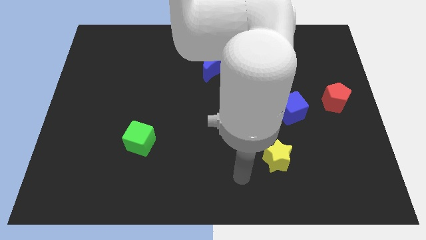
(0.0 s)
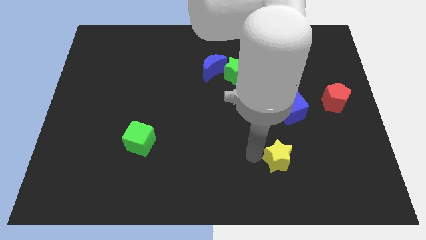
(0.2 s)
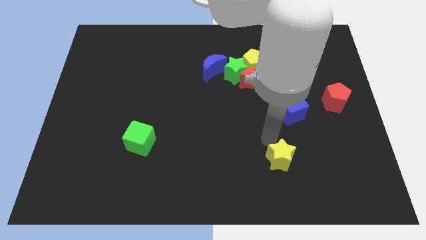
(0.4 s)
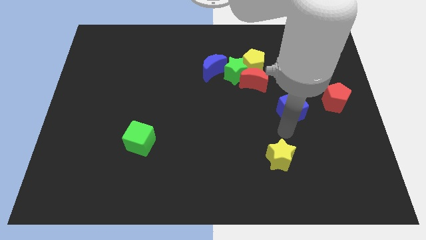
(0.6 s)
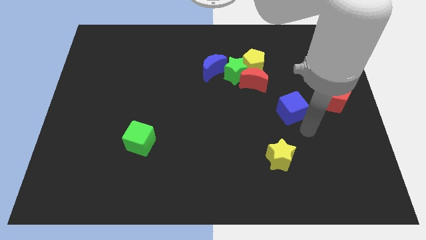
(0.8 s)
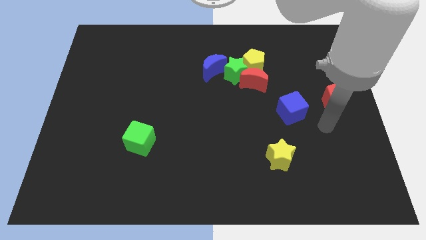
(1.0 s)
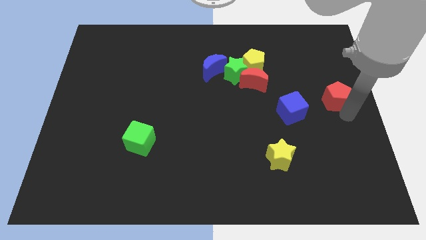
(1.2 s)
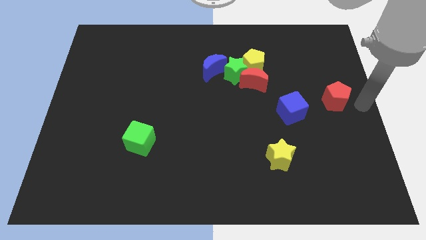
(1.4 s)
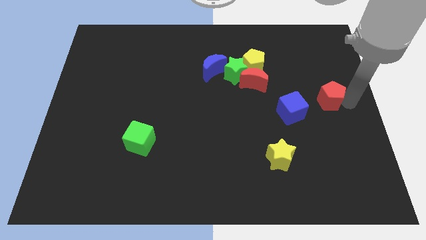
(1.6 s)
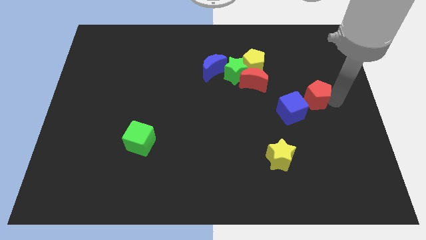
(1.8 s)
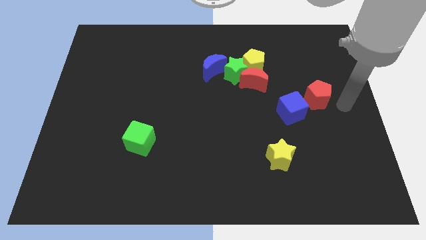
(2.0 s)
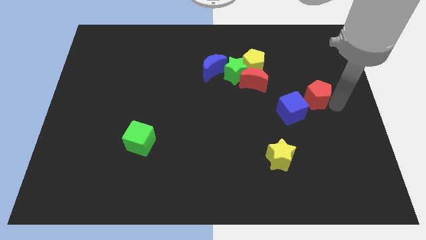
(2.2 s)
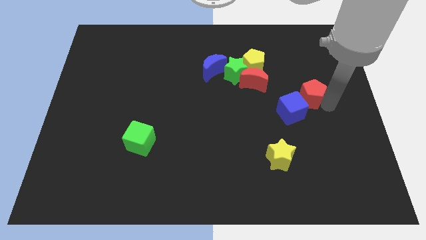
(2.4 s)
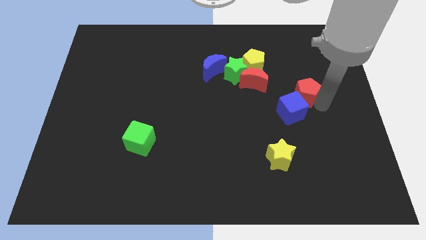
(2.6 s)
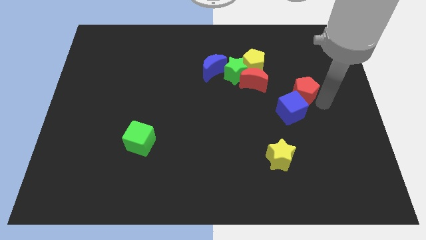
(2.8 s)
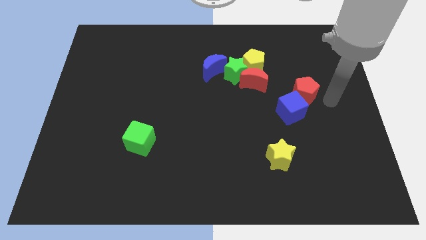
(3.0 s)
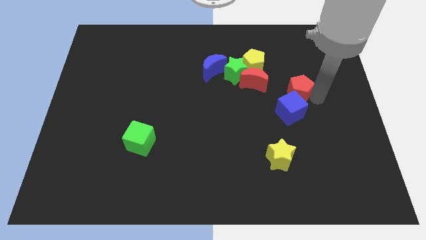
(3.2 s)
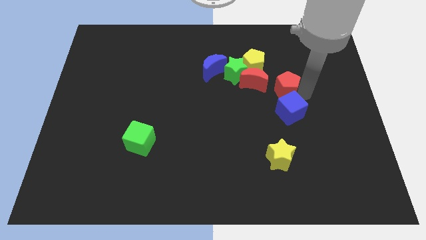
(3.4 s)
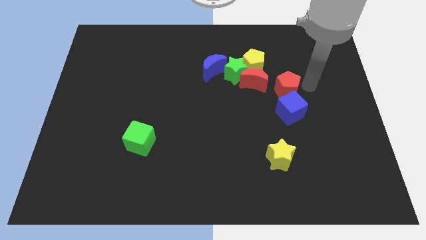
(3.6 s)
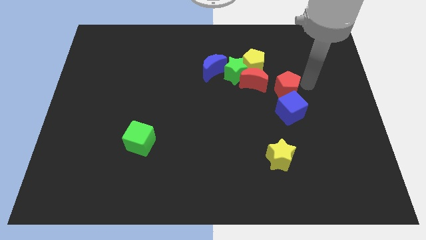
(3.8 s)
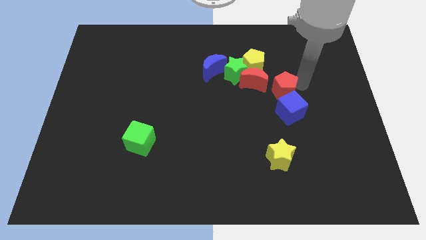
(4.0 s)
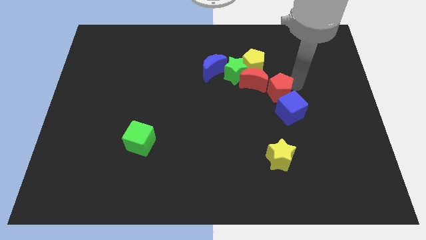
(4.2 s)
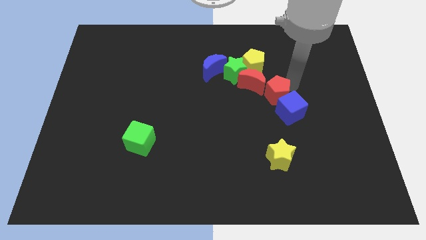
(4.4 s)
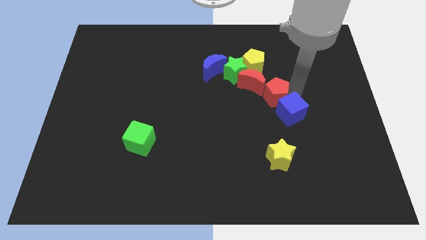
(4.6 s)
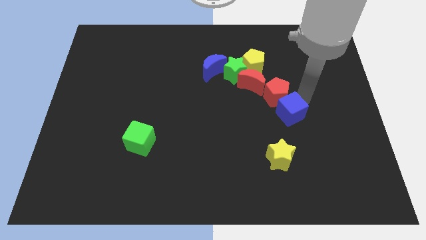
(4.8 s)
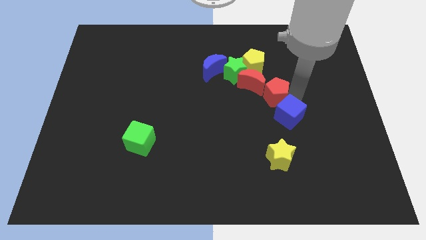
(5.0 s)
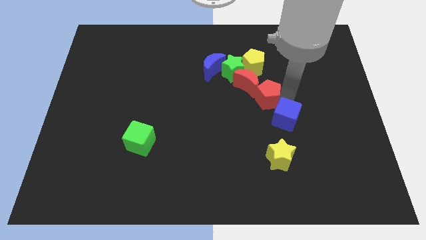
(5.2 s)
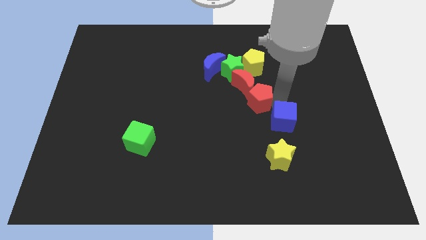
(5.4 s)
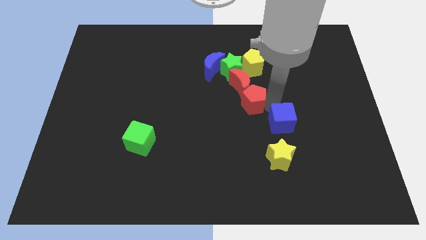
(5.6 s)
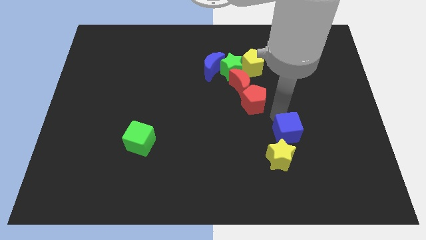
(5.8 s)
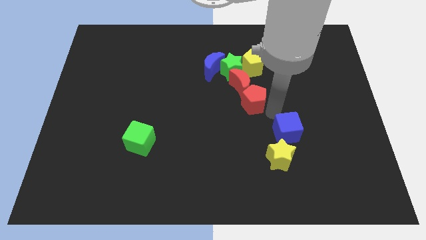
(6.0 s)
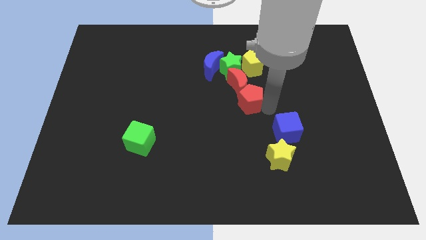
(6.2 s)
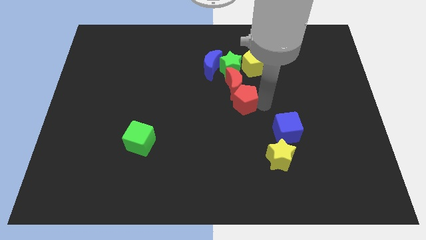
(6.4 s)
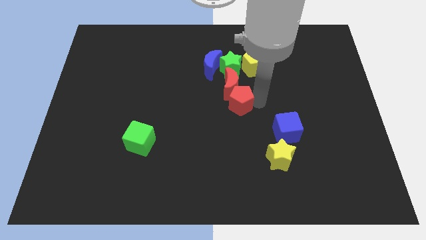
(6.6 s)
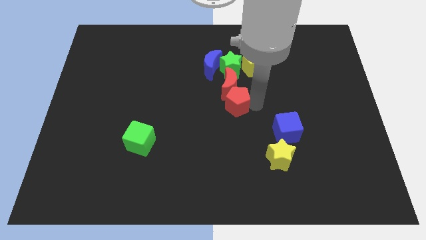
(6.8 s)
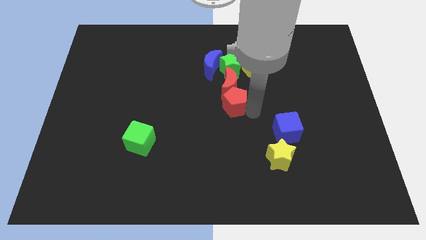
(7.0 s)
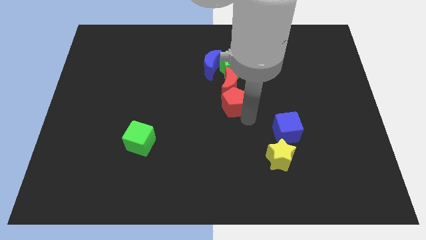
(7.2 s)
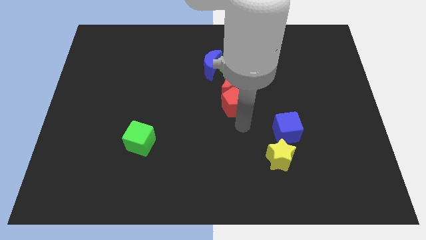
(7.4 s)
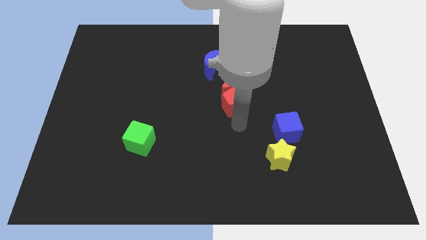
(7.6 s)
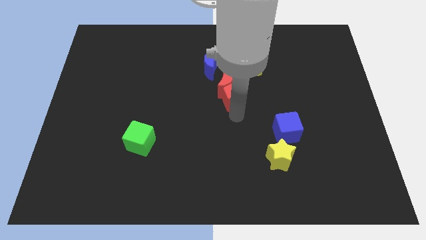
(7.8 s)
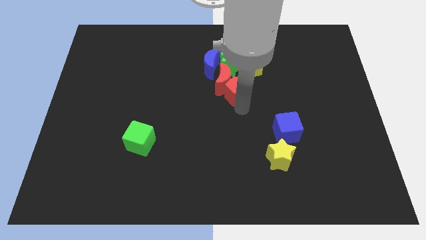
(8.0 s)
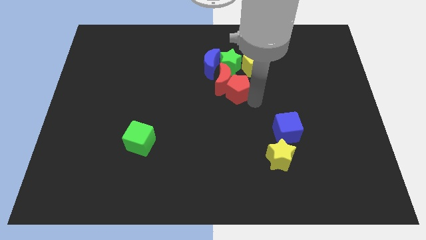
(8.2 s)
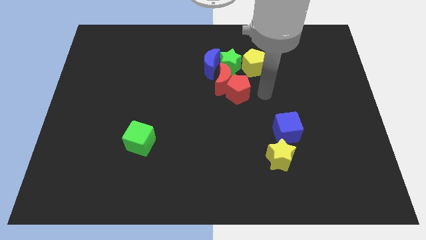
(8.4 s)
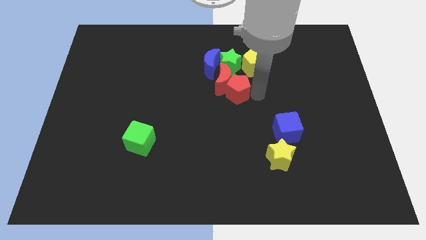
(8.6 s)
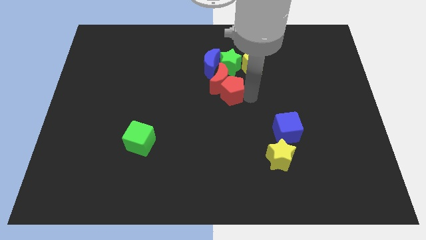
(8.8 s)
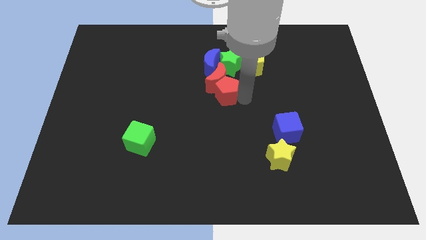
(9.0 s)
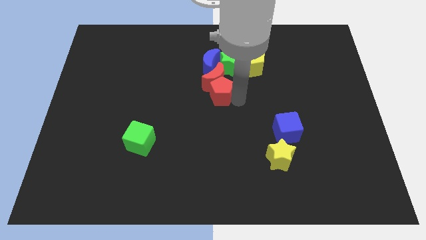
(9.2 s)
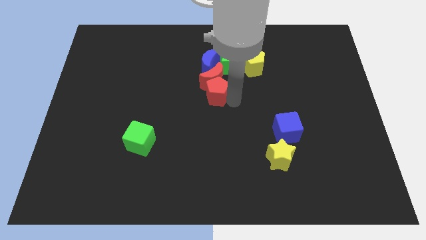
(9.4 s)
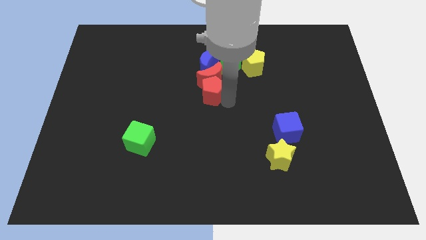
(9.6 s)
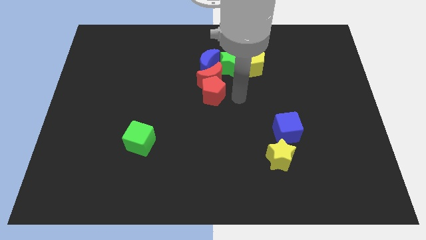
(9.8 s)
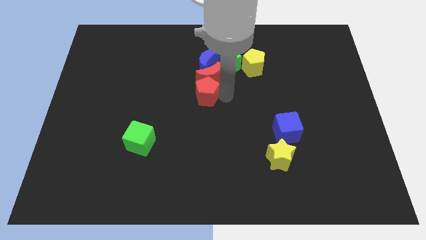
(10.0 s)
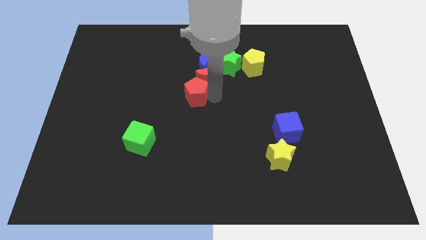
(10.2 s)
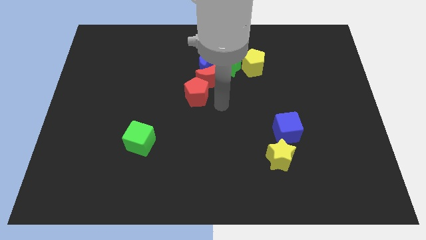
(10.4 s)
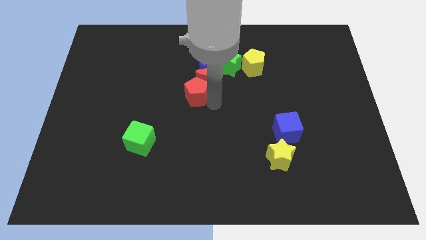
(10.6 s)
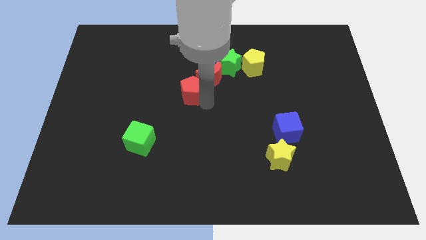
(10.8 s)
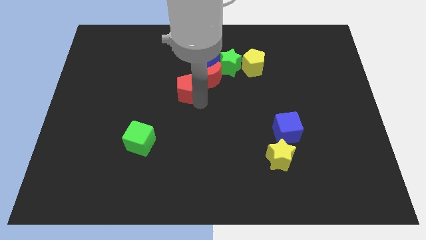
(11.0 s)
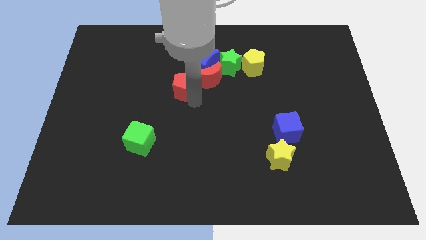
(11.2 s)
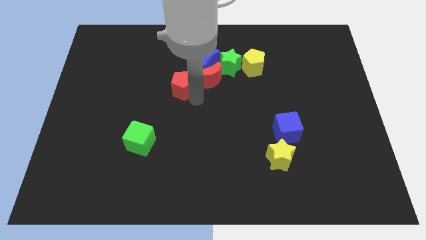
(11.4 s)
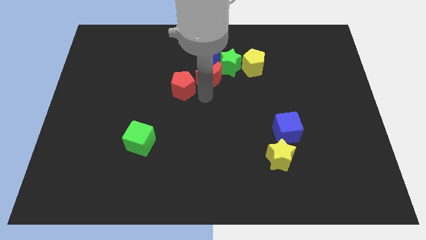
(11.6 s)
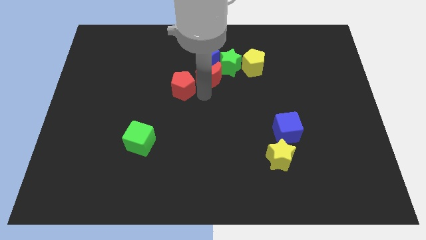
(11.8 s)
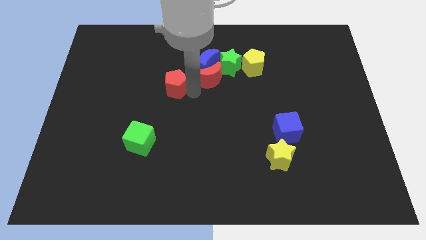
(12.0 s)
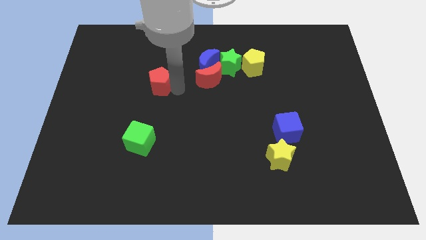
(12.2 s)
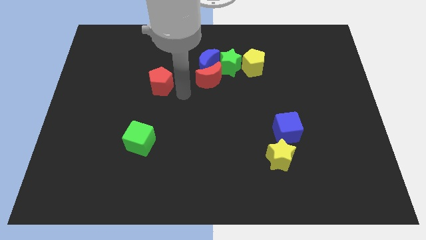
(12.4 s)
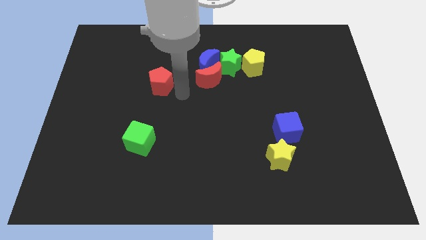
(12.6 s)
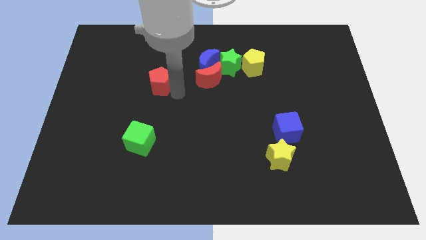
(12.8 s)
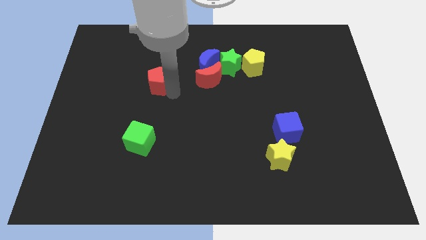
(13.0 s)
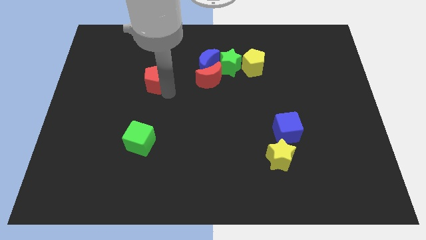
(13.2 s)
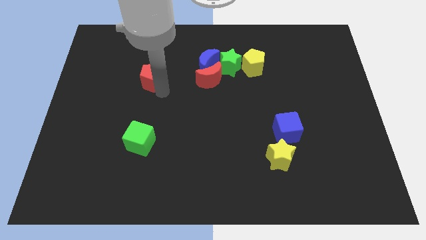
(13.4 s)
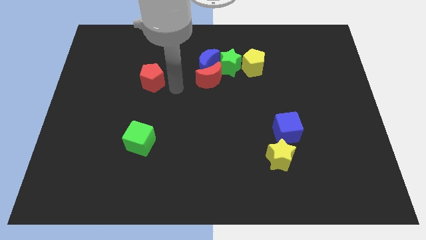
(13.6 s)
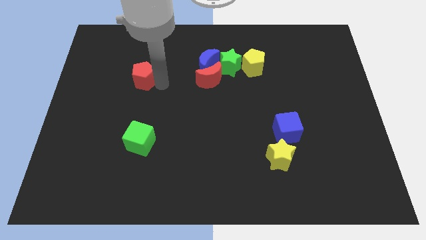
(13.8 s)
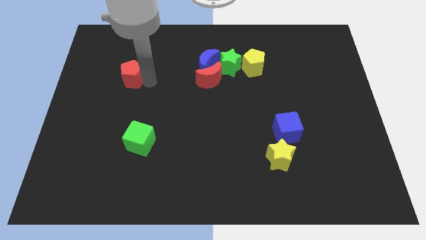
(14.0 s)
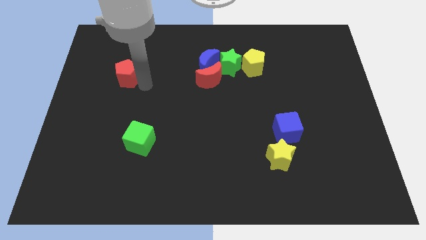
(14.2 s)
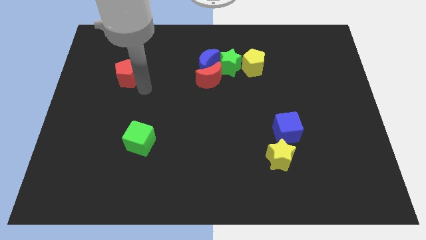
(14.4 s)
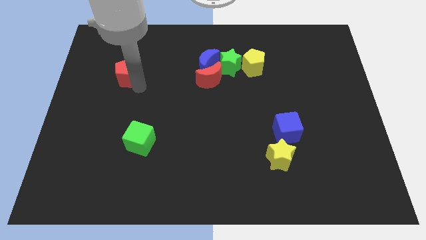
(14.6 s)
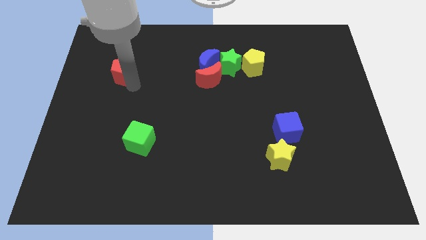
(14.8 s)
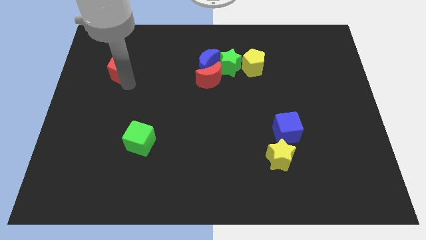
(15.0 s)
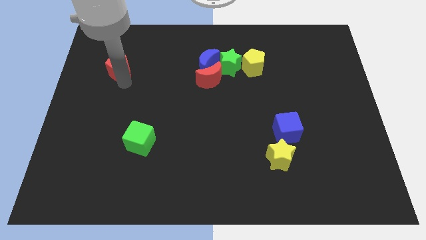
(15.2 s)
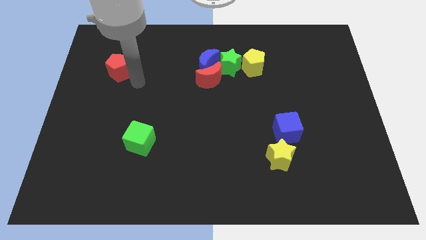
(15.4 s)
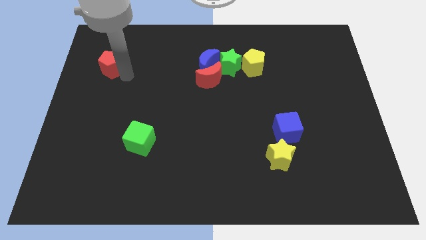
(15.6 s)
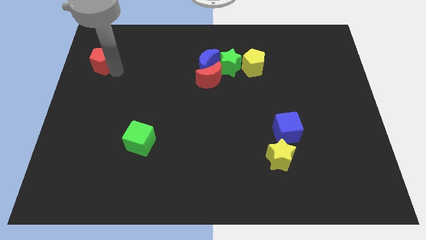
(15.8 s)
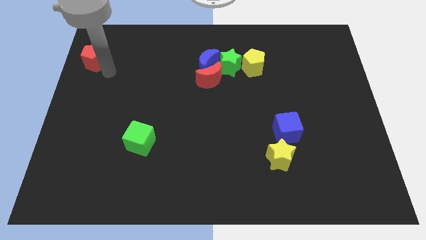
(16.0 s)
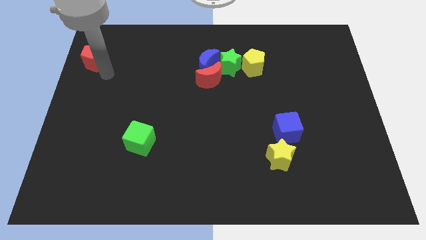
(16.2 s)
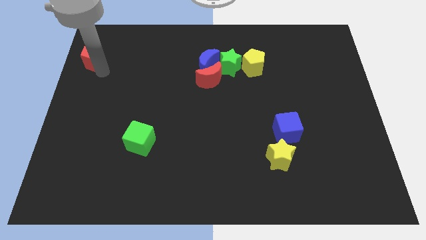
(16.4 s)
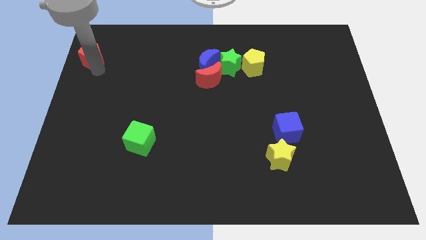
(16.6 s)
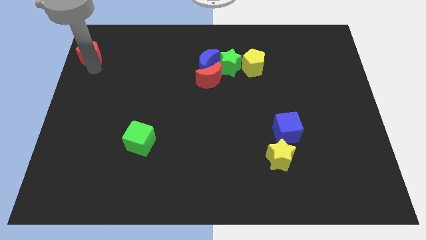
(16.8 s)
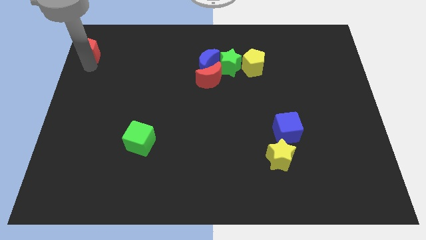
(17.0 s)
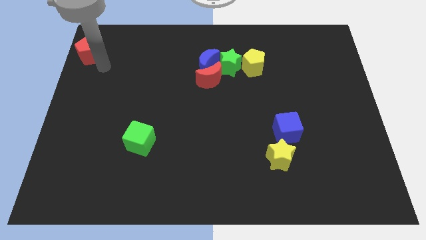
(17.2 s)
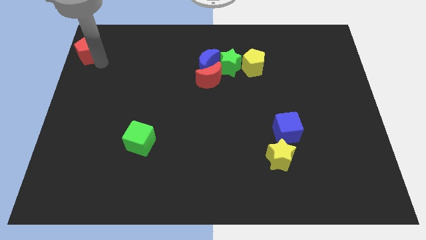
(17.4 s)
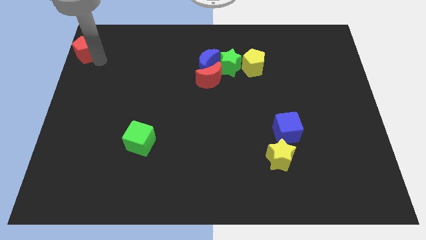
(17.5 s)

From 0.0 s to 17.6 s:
put the red pentagon to the top left
